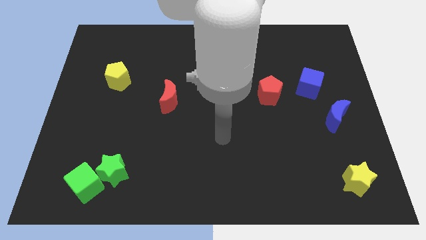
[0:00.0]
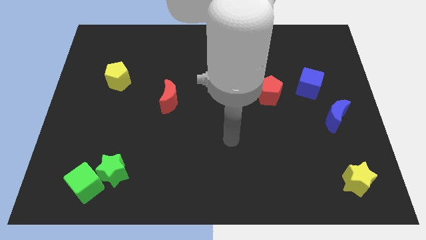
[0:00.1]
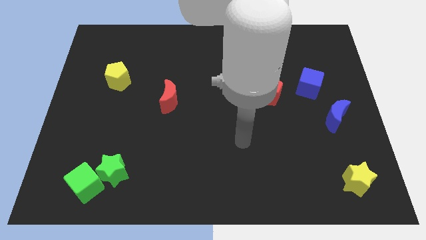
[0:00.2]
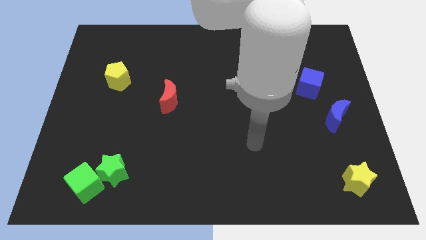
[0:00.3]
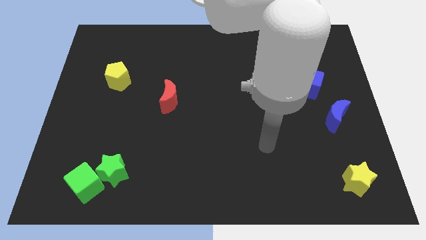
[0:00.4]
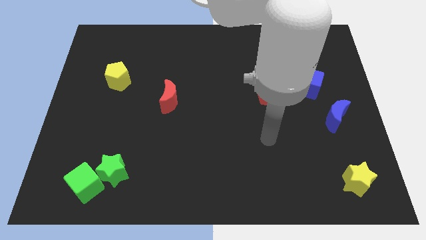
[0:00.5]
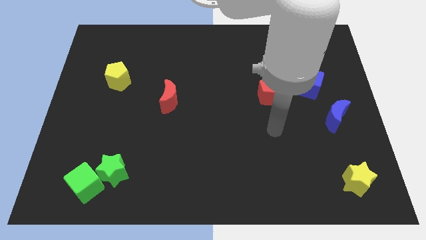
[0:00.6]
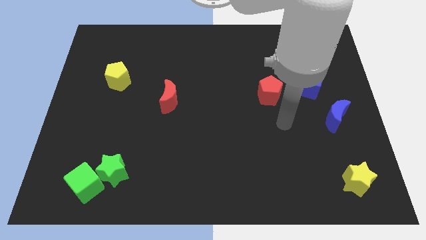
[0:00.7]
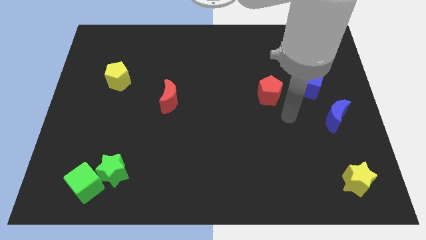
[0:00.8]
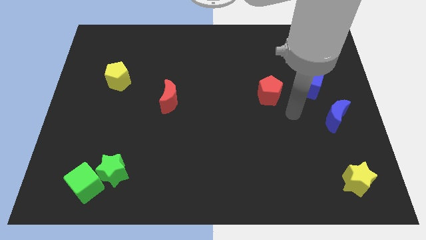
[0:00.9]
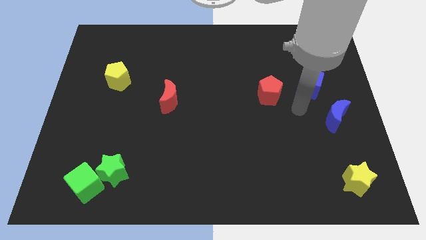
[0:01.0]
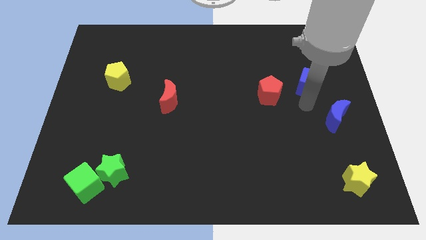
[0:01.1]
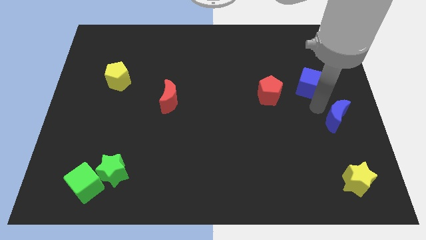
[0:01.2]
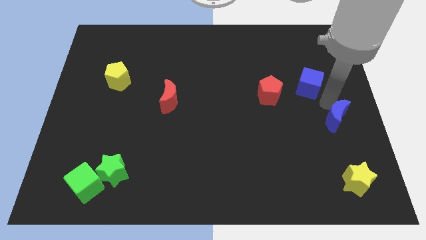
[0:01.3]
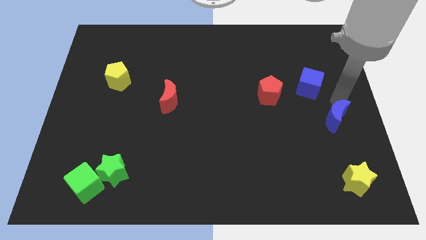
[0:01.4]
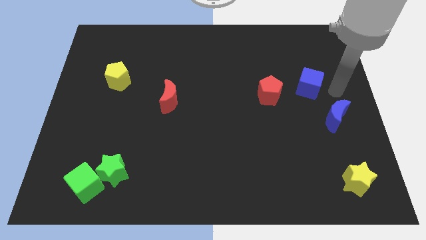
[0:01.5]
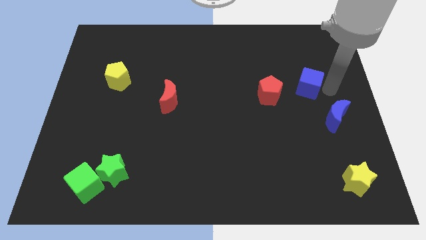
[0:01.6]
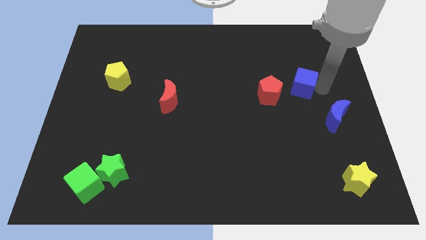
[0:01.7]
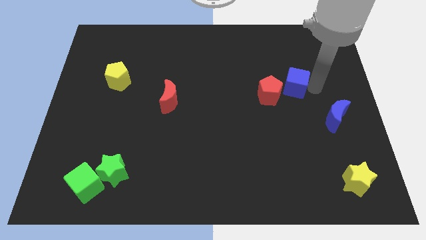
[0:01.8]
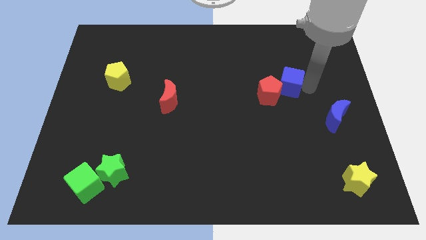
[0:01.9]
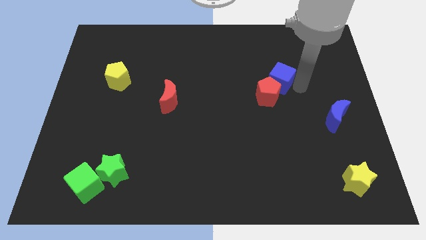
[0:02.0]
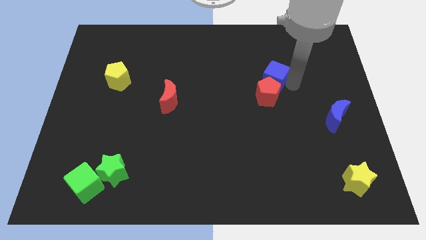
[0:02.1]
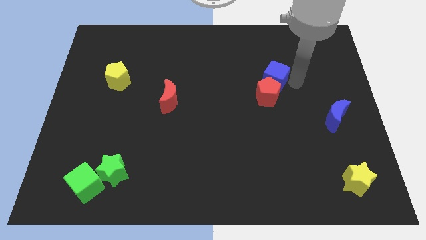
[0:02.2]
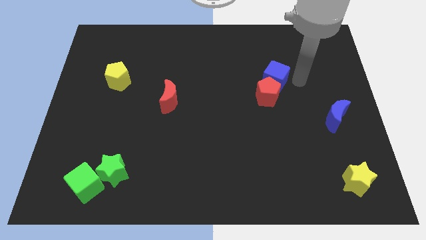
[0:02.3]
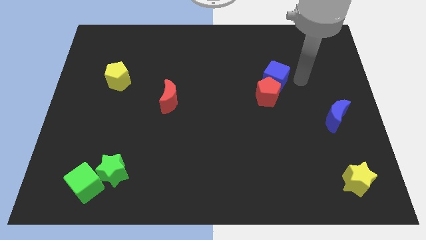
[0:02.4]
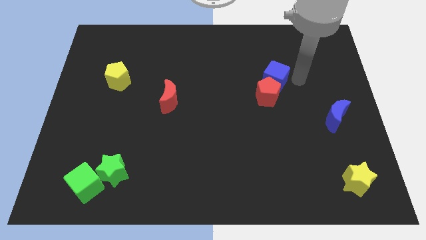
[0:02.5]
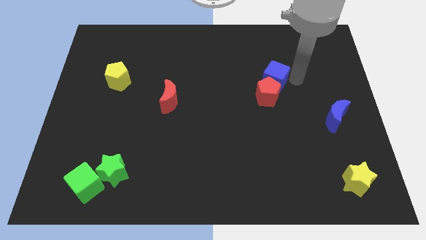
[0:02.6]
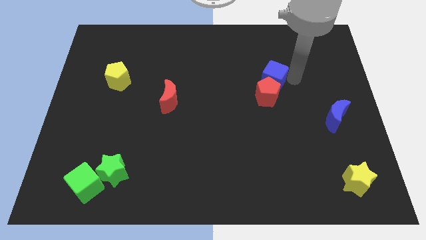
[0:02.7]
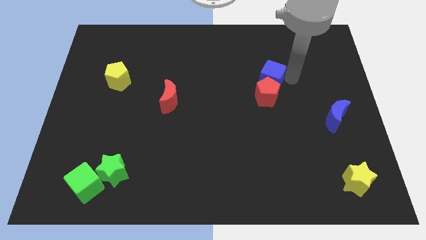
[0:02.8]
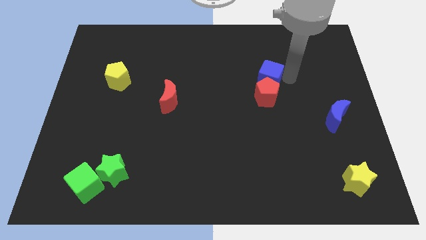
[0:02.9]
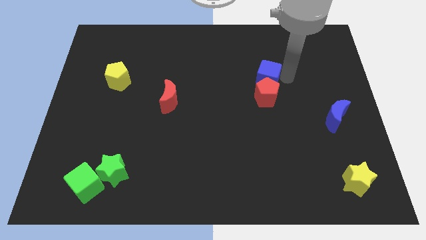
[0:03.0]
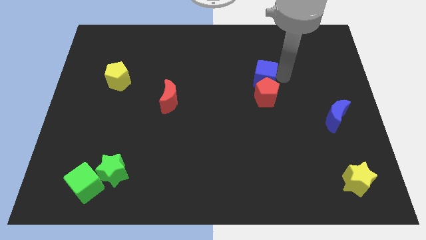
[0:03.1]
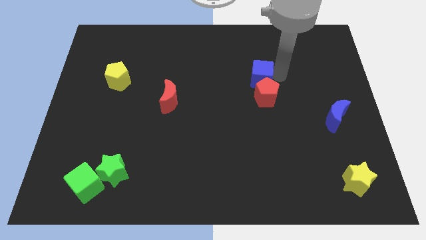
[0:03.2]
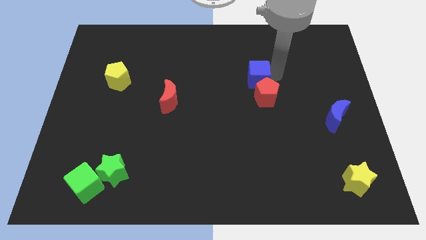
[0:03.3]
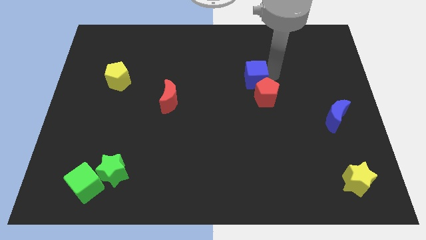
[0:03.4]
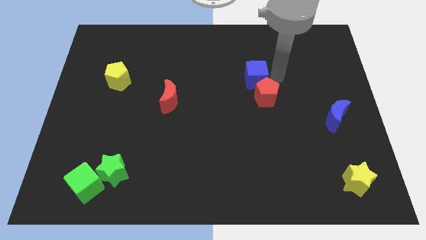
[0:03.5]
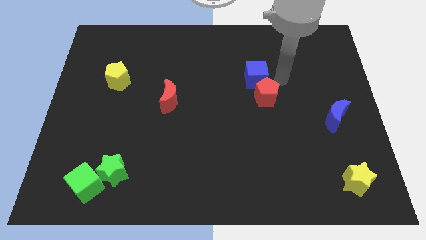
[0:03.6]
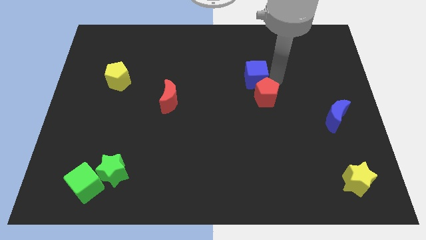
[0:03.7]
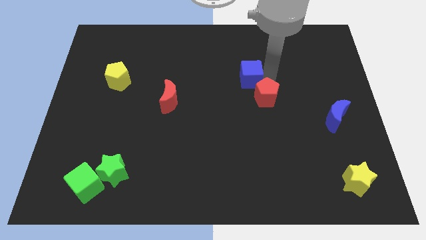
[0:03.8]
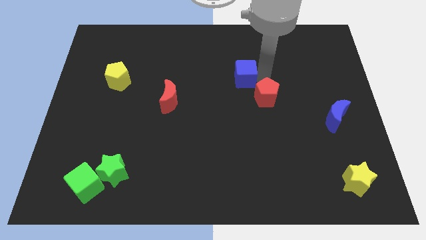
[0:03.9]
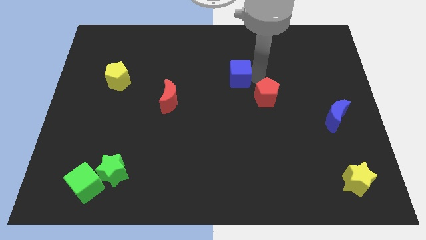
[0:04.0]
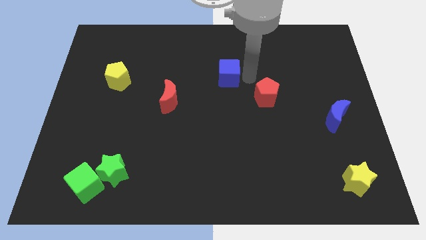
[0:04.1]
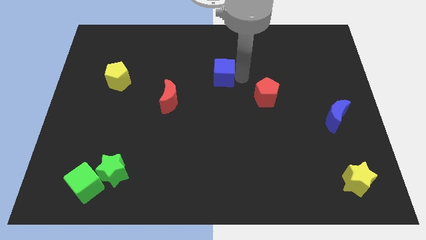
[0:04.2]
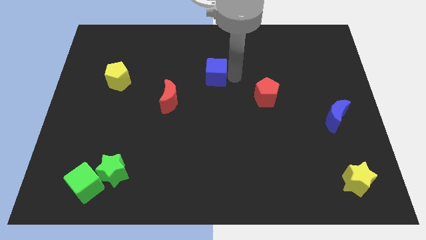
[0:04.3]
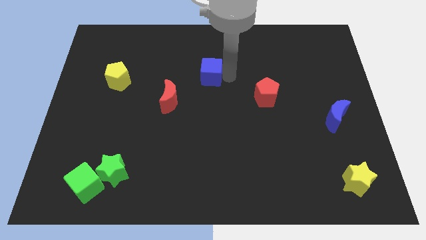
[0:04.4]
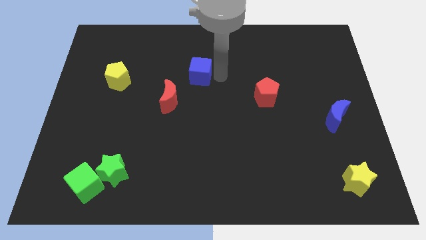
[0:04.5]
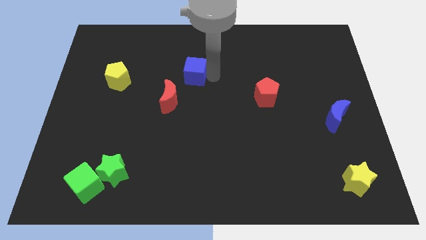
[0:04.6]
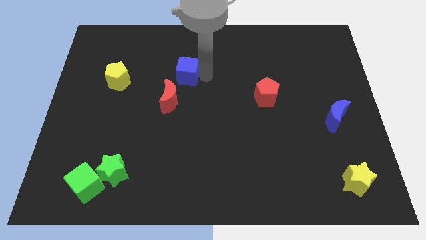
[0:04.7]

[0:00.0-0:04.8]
push the blue cube to the top side of the red moon

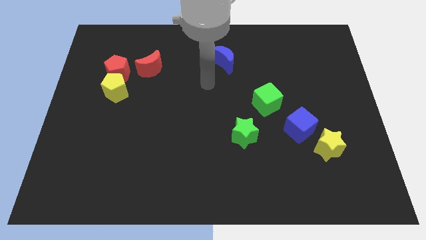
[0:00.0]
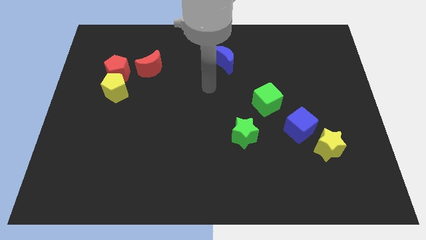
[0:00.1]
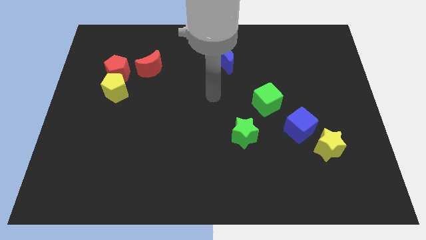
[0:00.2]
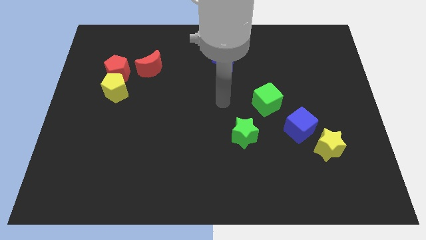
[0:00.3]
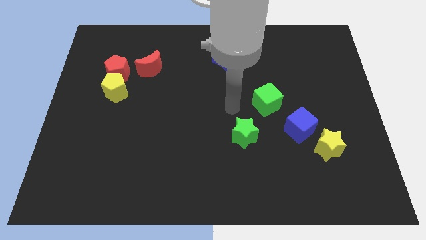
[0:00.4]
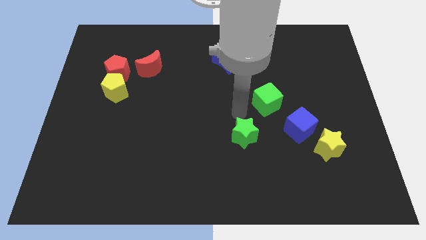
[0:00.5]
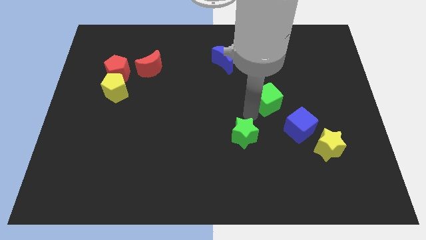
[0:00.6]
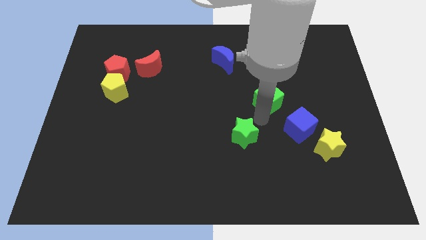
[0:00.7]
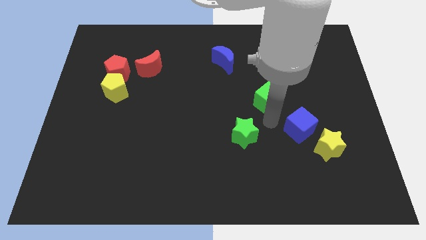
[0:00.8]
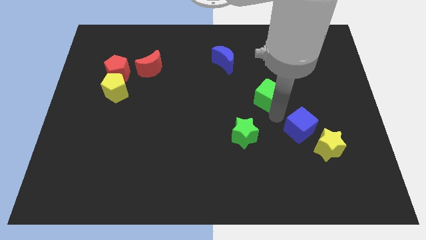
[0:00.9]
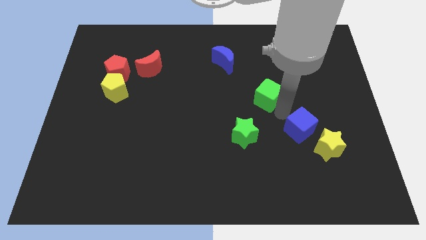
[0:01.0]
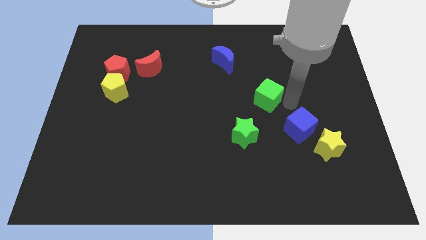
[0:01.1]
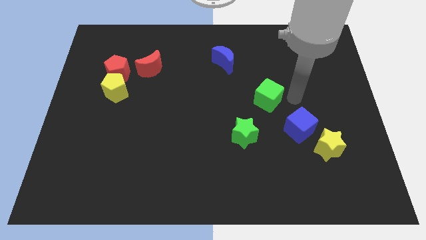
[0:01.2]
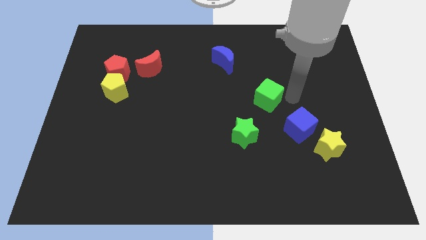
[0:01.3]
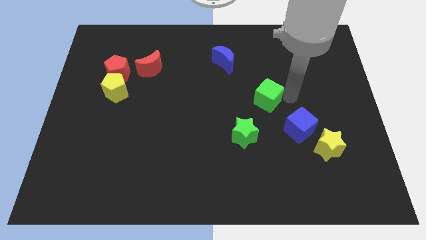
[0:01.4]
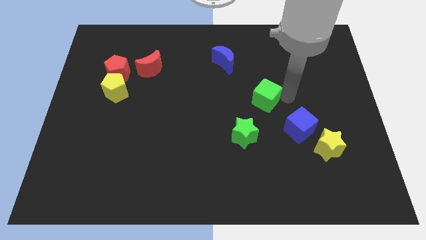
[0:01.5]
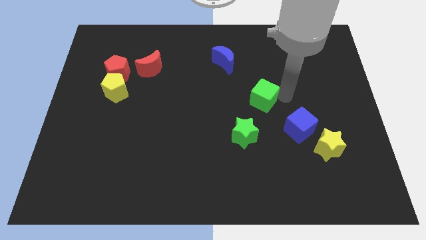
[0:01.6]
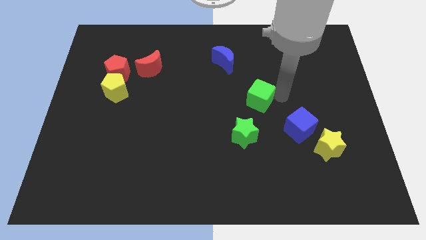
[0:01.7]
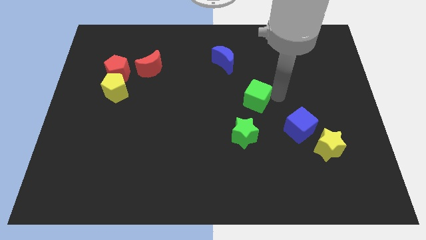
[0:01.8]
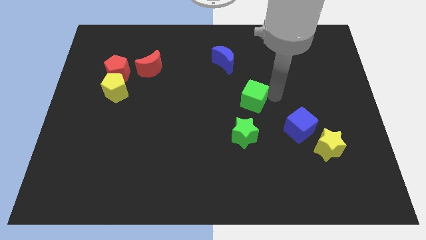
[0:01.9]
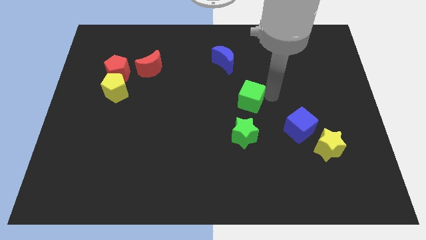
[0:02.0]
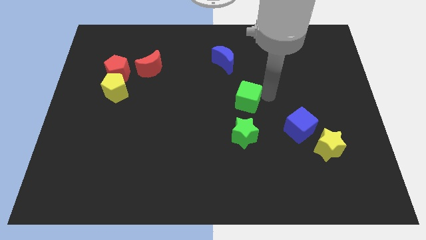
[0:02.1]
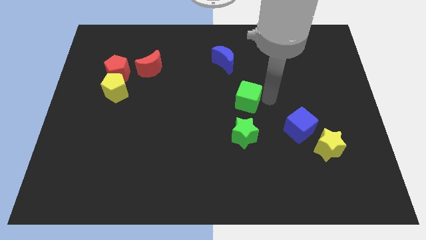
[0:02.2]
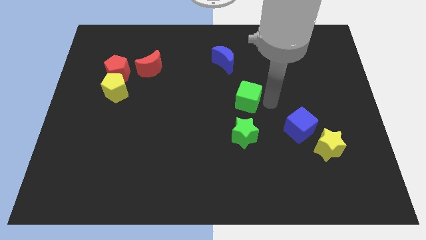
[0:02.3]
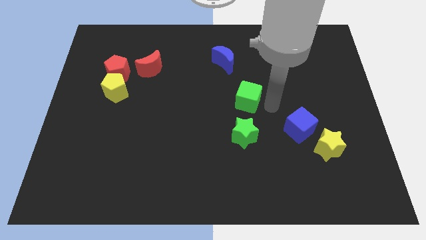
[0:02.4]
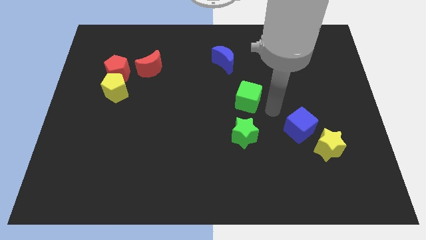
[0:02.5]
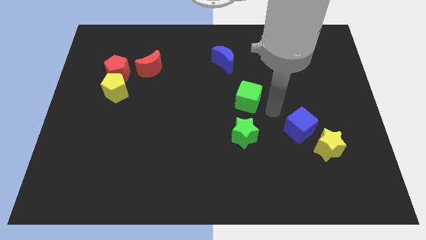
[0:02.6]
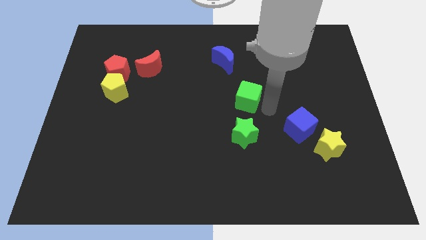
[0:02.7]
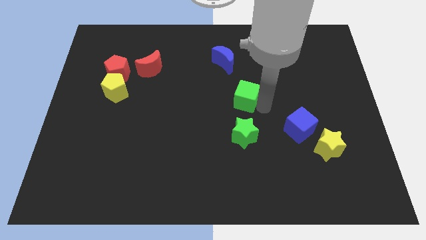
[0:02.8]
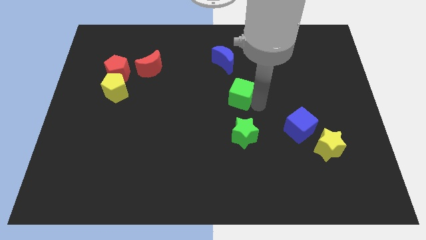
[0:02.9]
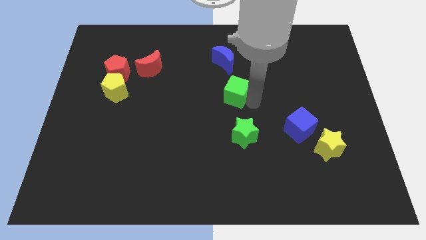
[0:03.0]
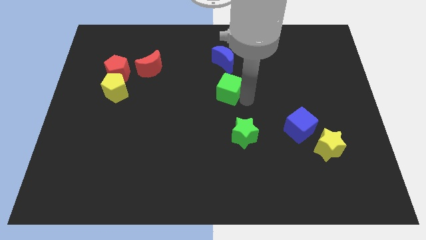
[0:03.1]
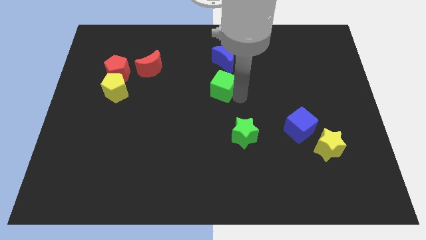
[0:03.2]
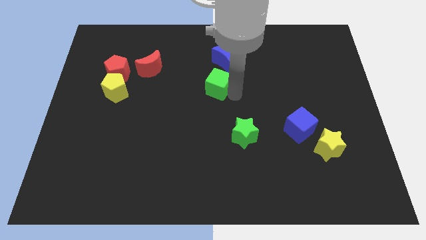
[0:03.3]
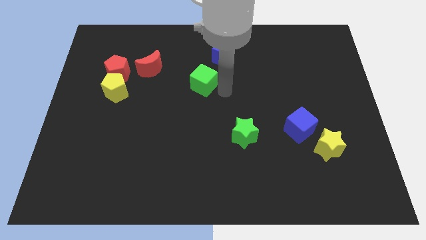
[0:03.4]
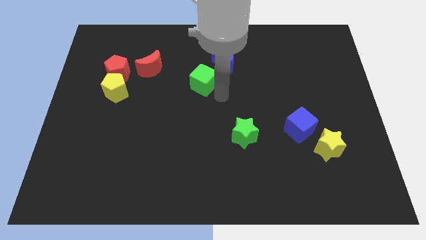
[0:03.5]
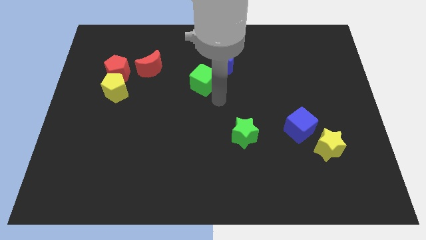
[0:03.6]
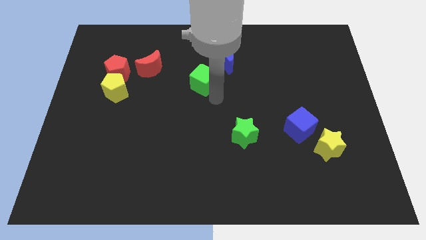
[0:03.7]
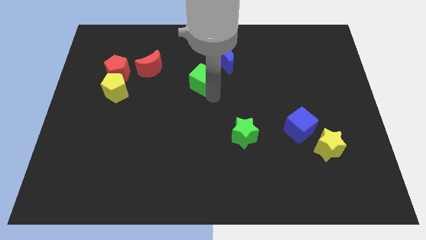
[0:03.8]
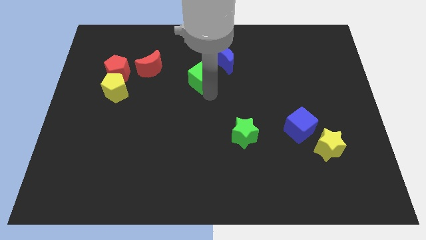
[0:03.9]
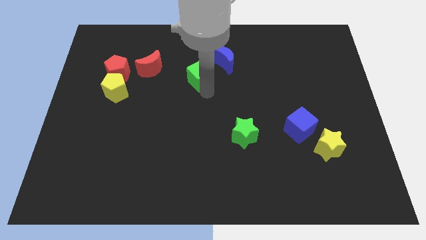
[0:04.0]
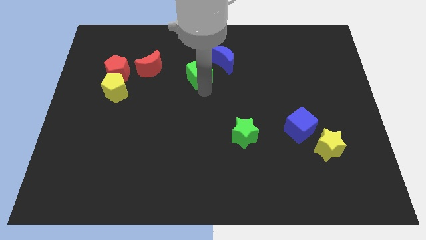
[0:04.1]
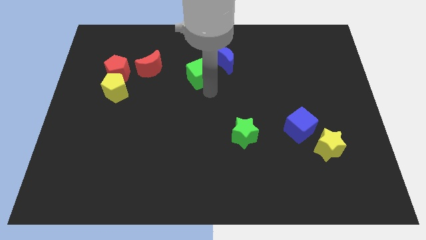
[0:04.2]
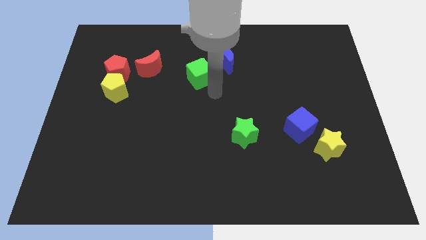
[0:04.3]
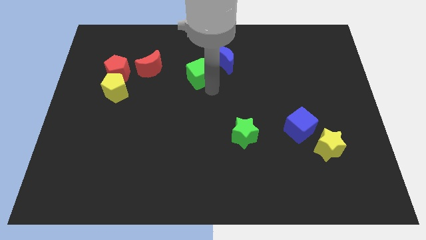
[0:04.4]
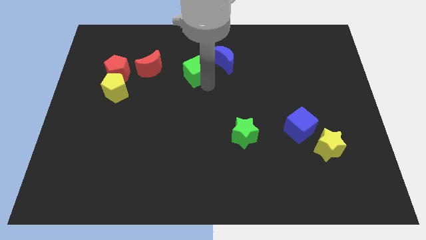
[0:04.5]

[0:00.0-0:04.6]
put the green cube to the left side of the blue moon
